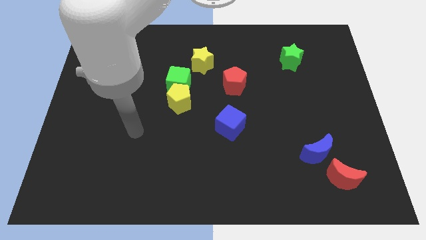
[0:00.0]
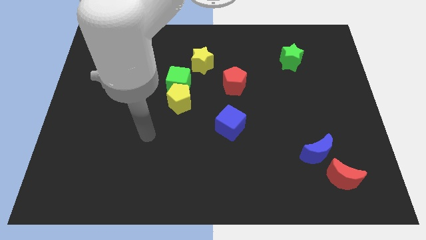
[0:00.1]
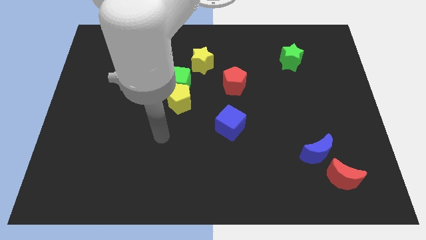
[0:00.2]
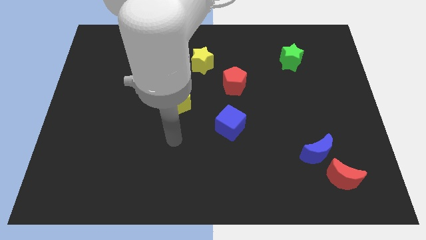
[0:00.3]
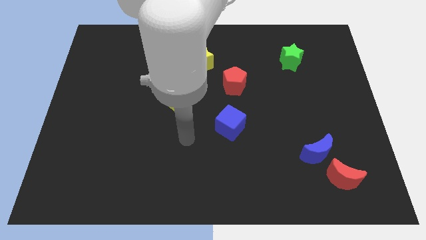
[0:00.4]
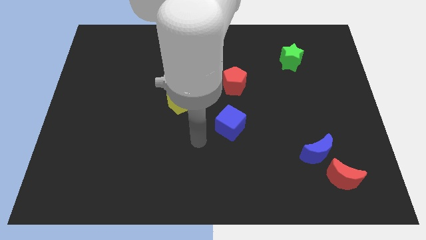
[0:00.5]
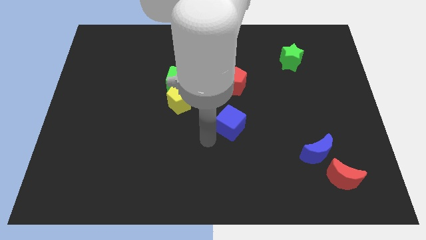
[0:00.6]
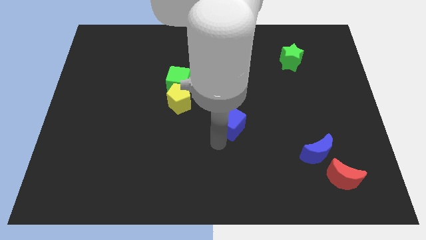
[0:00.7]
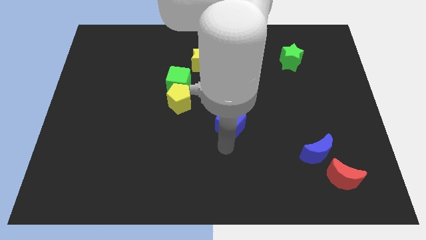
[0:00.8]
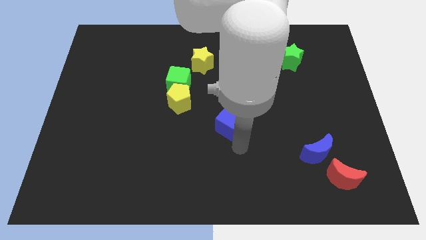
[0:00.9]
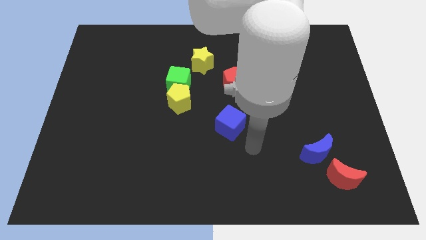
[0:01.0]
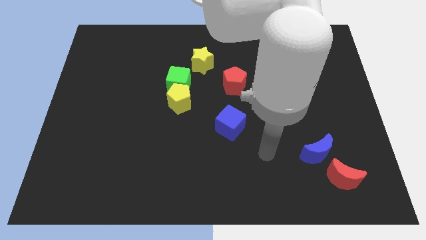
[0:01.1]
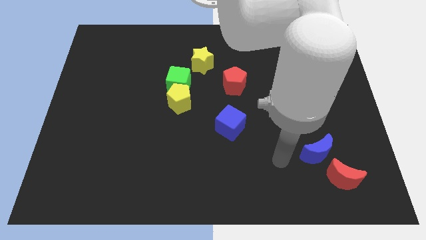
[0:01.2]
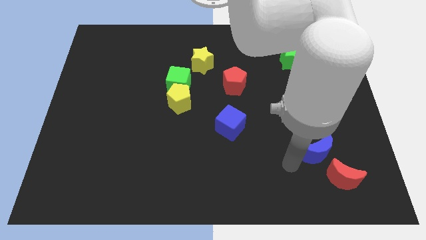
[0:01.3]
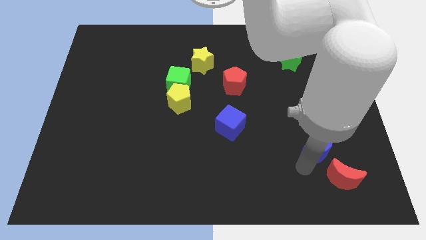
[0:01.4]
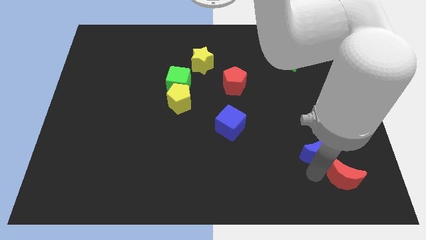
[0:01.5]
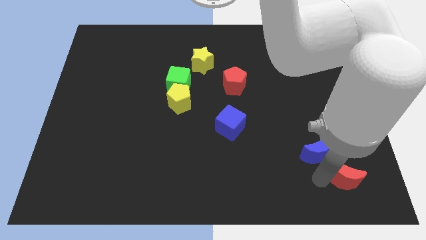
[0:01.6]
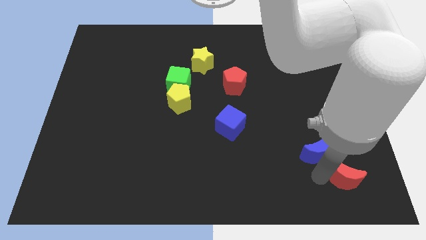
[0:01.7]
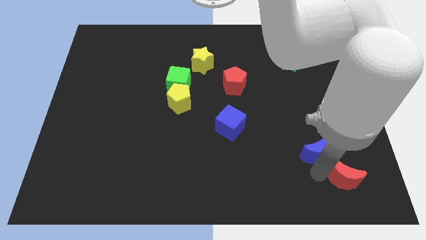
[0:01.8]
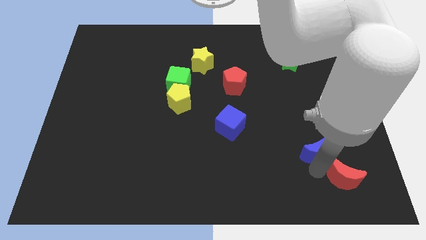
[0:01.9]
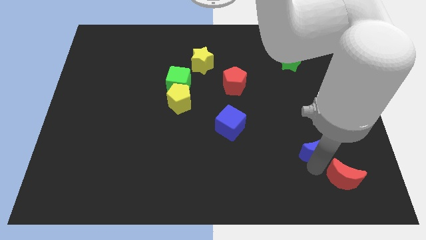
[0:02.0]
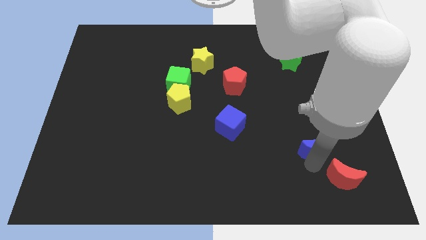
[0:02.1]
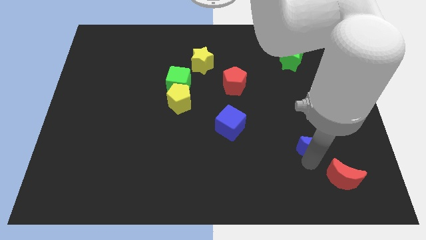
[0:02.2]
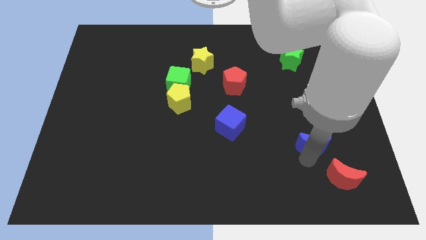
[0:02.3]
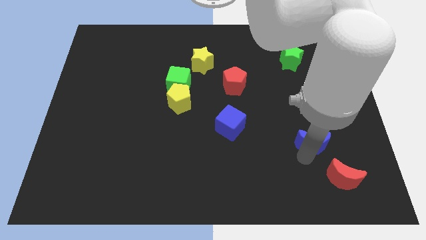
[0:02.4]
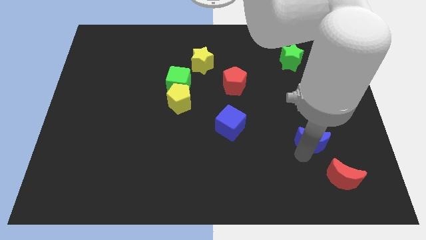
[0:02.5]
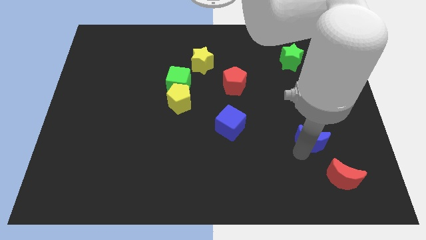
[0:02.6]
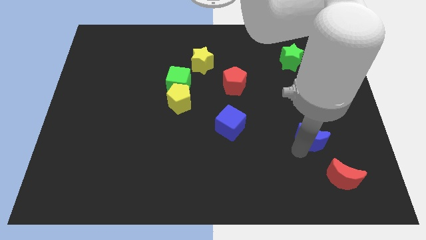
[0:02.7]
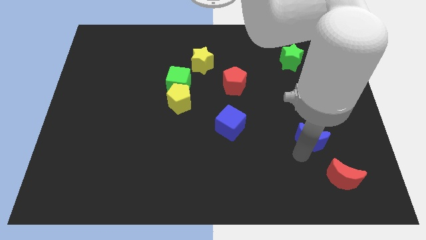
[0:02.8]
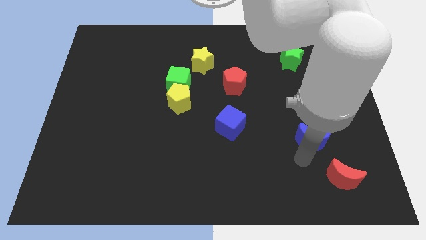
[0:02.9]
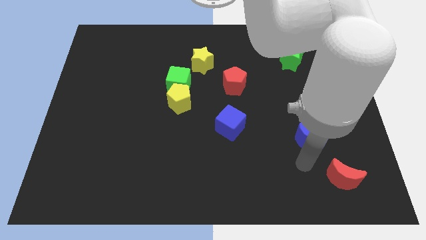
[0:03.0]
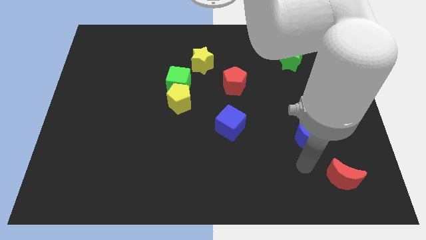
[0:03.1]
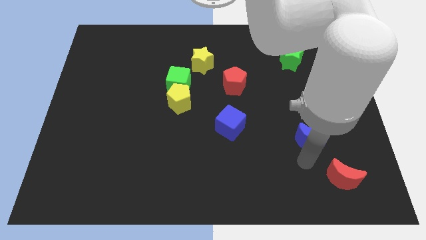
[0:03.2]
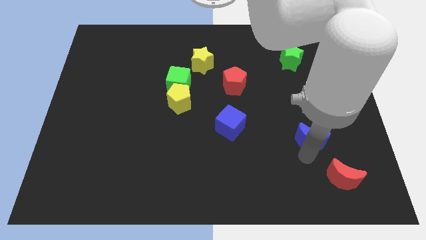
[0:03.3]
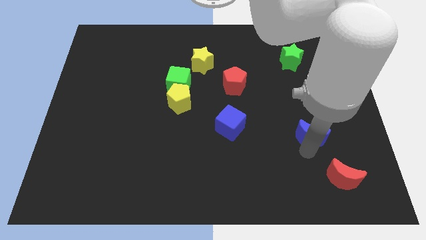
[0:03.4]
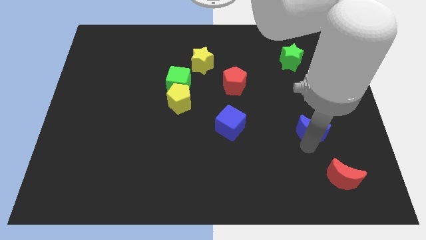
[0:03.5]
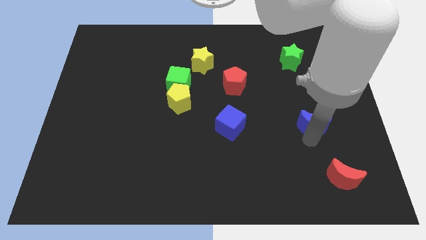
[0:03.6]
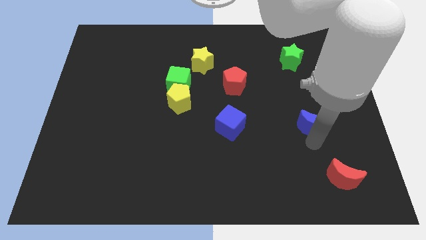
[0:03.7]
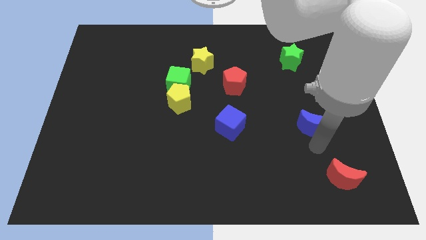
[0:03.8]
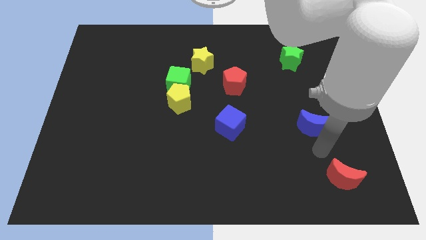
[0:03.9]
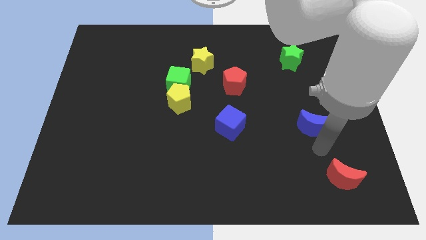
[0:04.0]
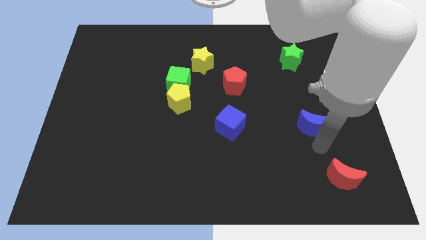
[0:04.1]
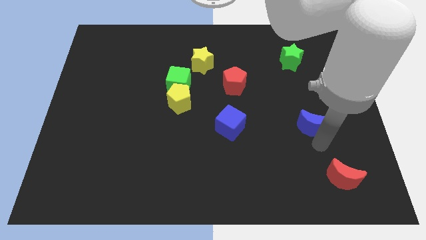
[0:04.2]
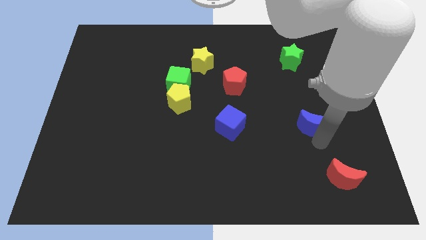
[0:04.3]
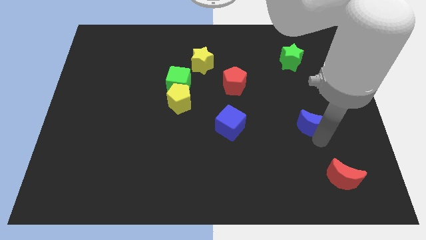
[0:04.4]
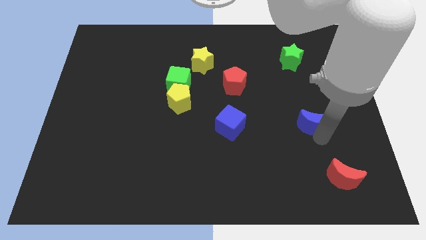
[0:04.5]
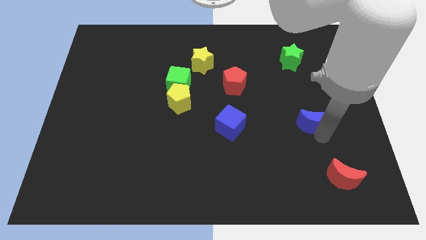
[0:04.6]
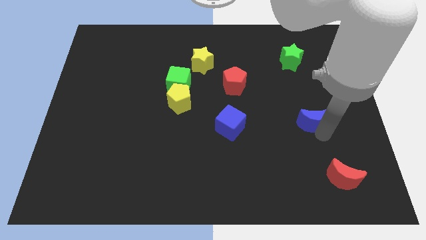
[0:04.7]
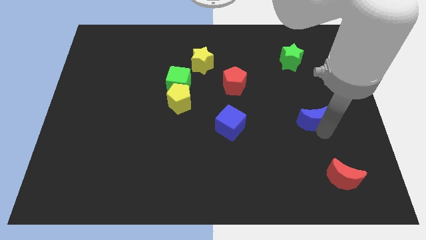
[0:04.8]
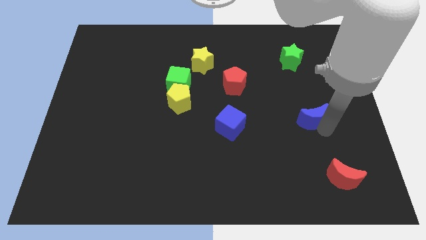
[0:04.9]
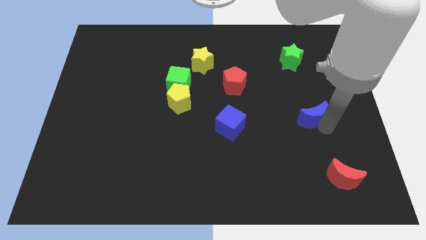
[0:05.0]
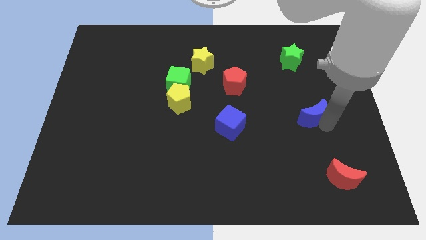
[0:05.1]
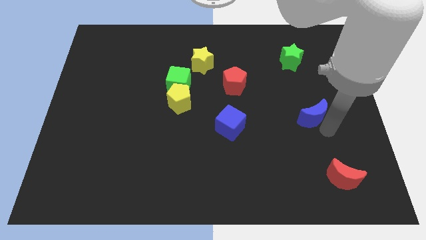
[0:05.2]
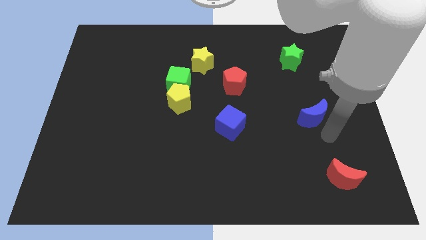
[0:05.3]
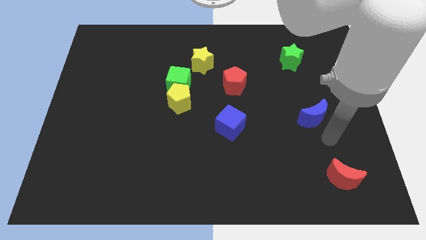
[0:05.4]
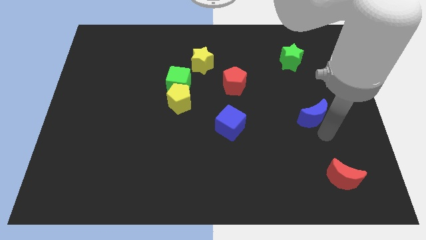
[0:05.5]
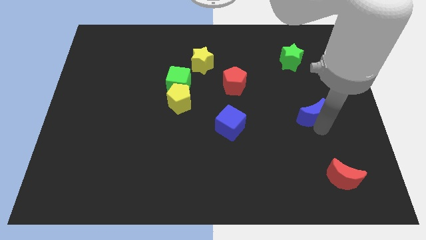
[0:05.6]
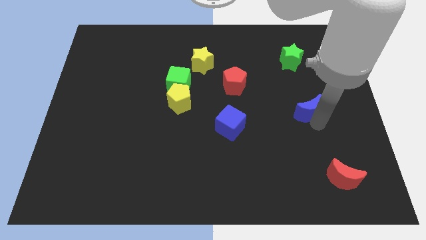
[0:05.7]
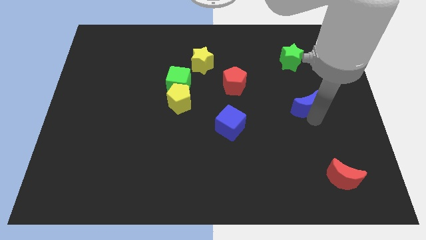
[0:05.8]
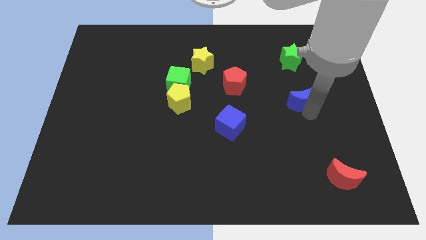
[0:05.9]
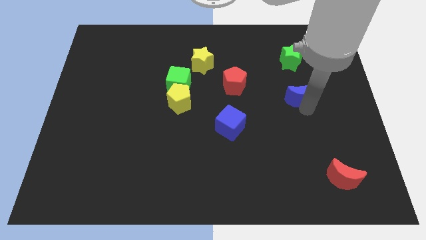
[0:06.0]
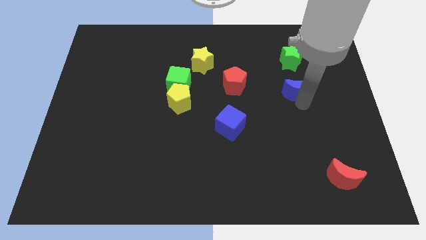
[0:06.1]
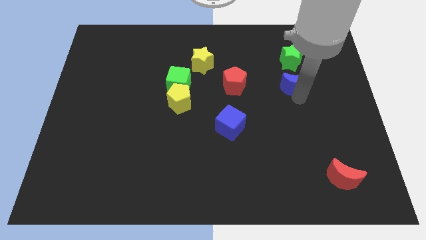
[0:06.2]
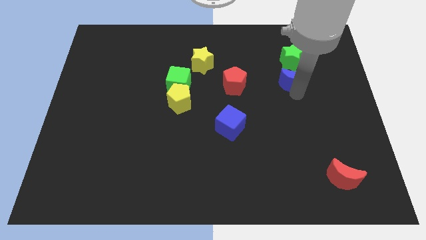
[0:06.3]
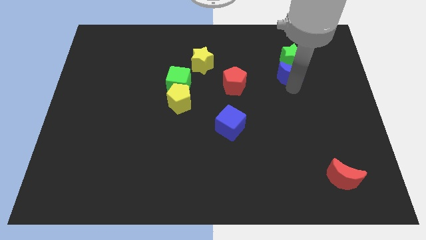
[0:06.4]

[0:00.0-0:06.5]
put the blue moon towards the green star
